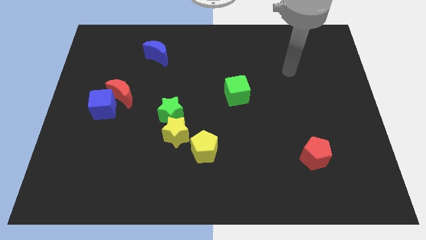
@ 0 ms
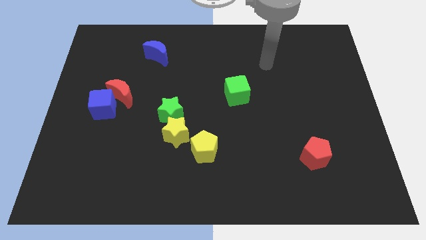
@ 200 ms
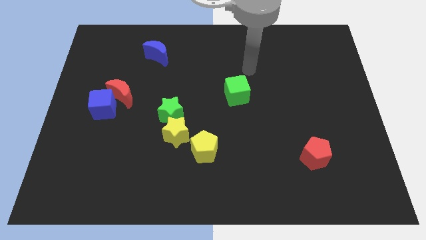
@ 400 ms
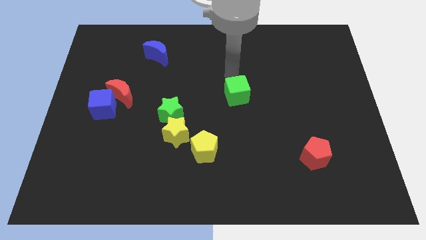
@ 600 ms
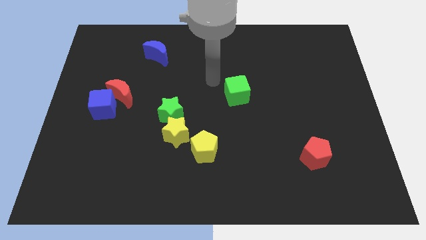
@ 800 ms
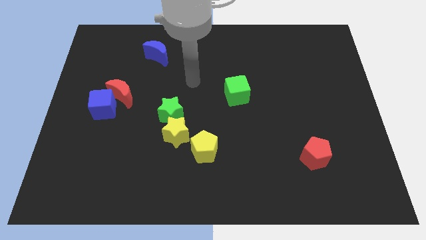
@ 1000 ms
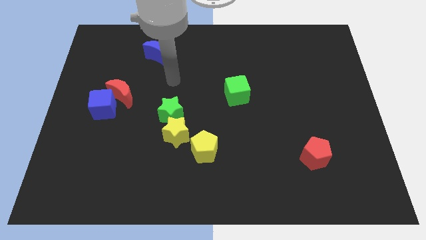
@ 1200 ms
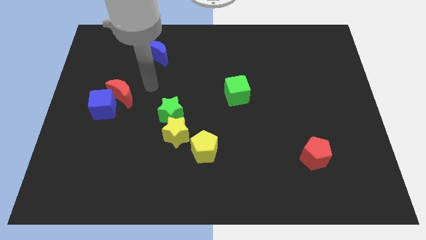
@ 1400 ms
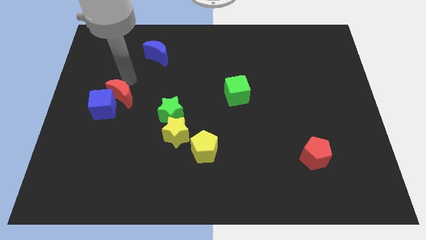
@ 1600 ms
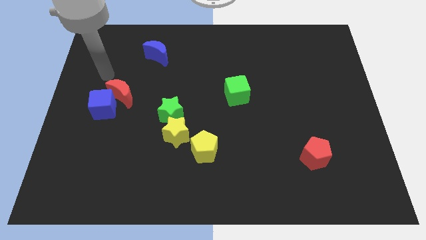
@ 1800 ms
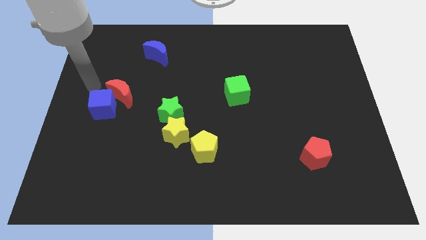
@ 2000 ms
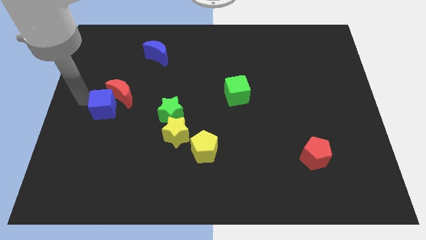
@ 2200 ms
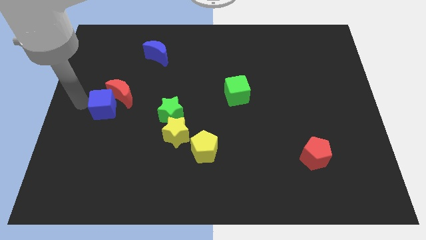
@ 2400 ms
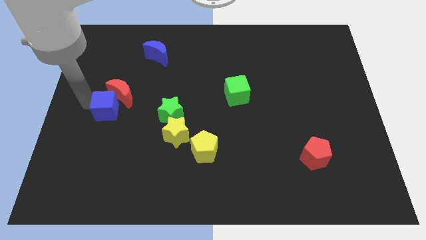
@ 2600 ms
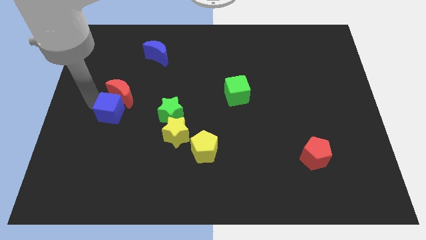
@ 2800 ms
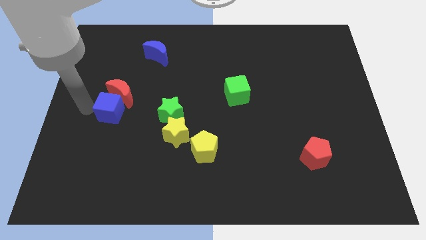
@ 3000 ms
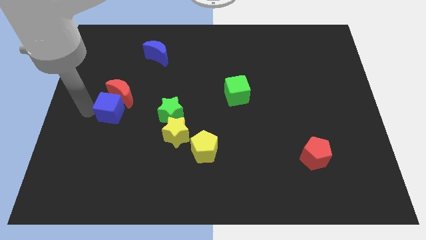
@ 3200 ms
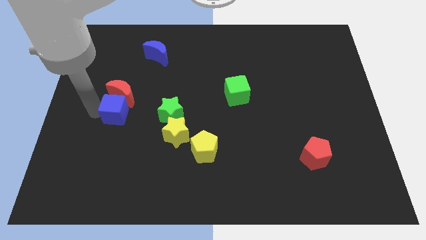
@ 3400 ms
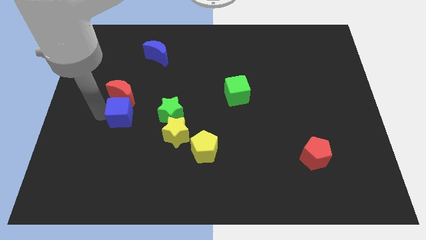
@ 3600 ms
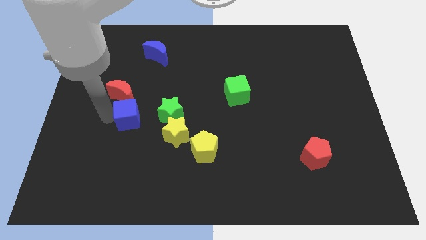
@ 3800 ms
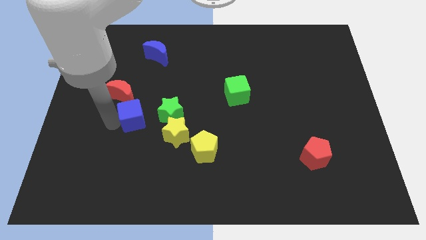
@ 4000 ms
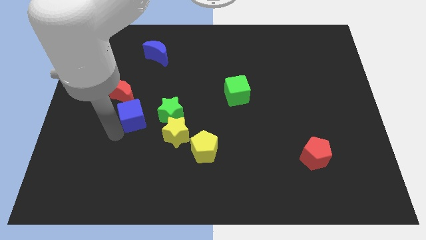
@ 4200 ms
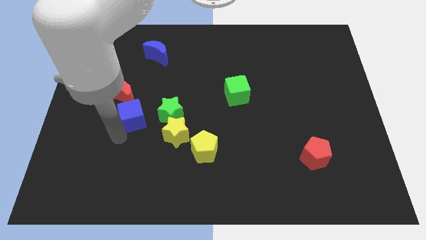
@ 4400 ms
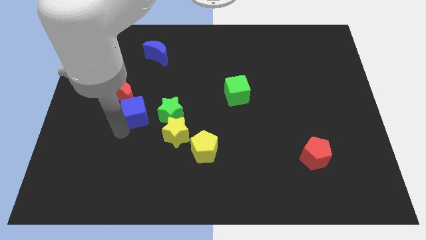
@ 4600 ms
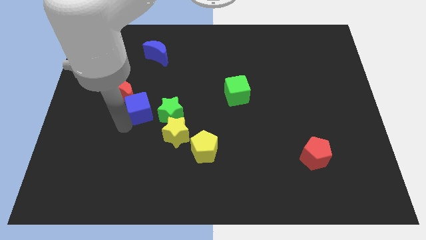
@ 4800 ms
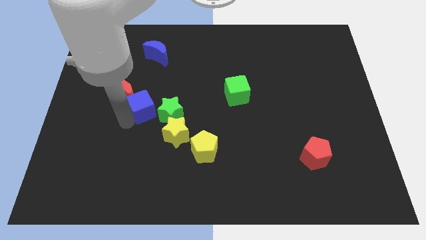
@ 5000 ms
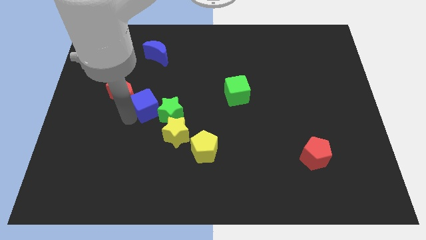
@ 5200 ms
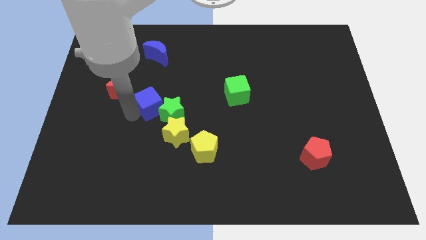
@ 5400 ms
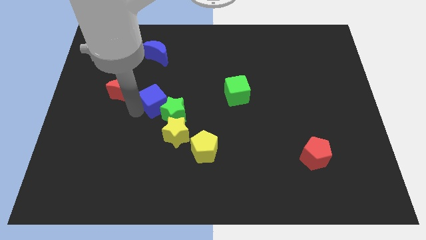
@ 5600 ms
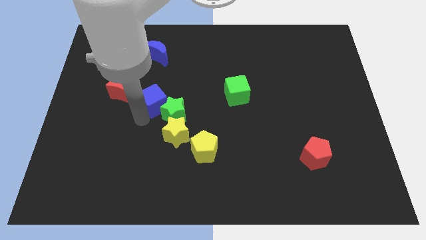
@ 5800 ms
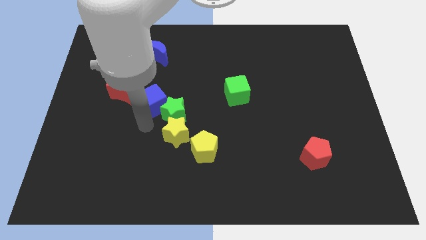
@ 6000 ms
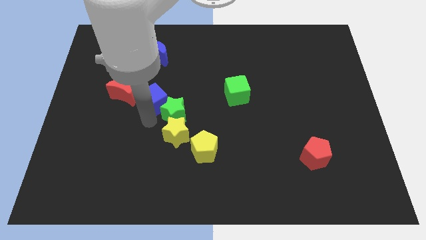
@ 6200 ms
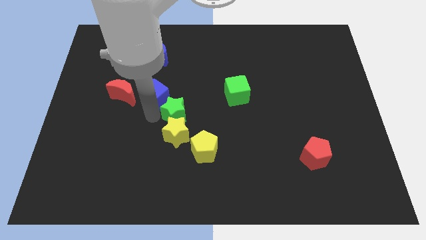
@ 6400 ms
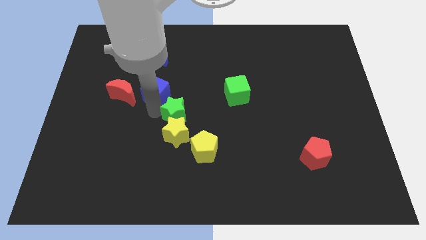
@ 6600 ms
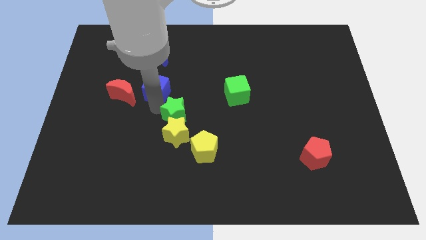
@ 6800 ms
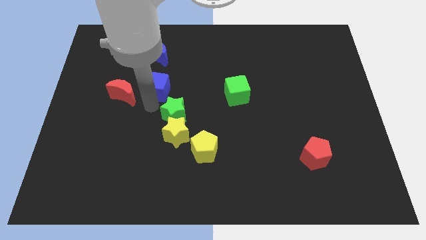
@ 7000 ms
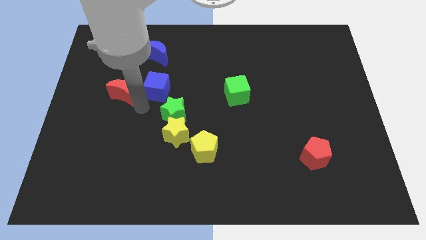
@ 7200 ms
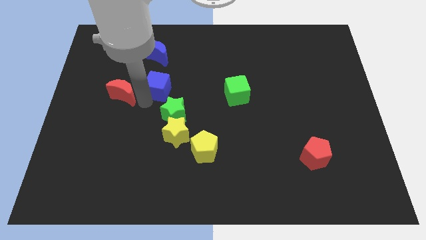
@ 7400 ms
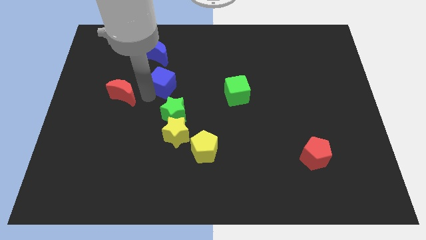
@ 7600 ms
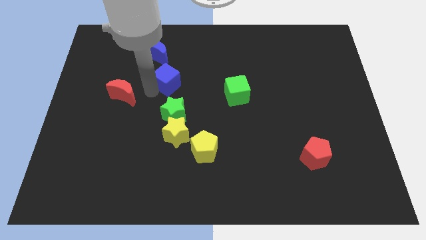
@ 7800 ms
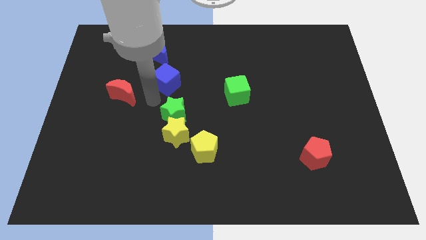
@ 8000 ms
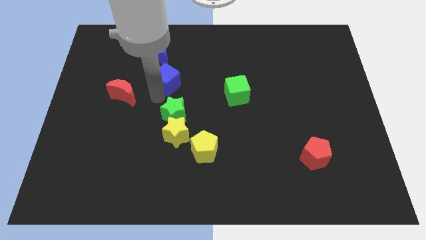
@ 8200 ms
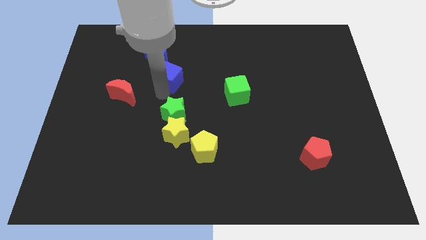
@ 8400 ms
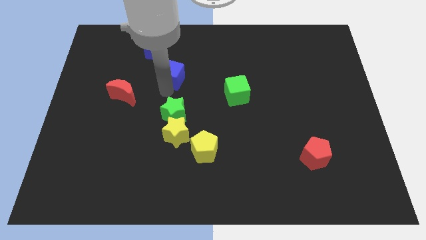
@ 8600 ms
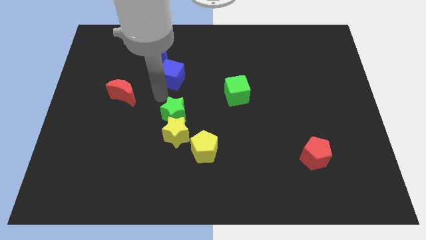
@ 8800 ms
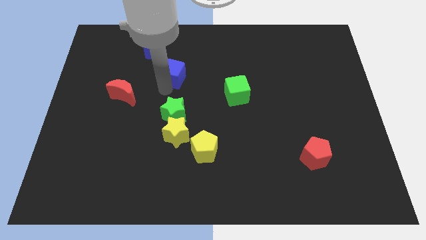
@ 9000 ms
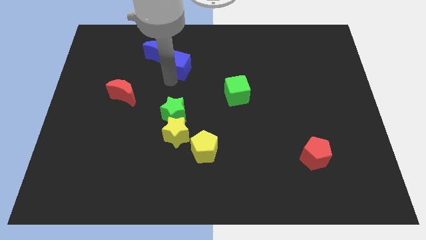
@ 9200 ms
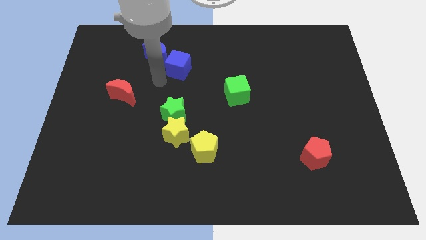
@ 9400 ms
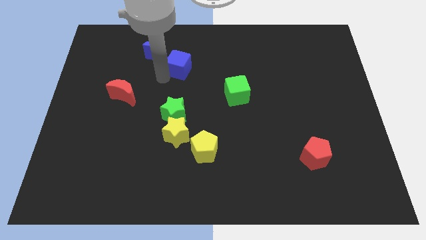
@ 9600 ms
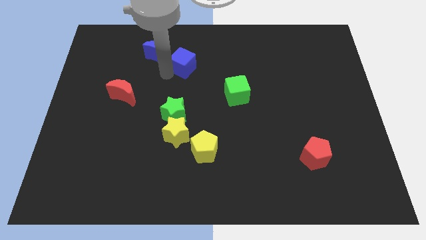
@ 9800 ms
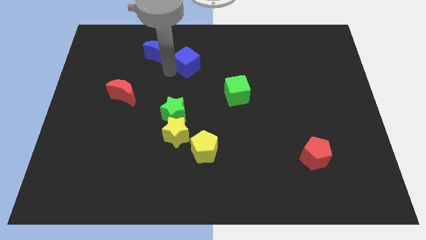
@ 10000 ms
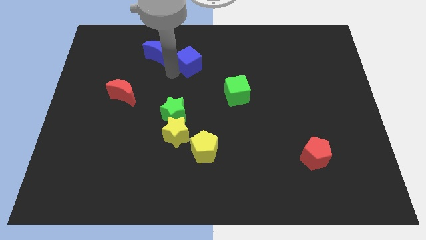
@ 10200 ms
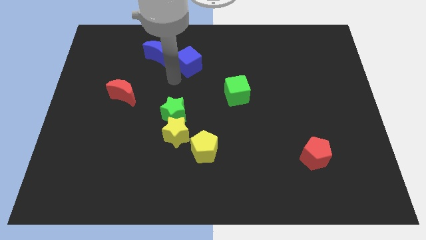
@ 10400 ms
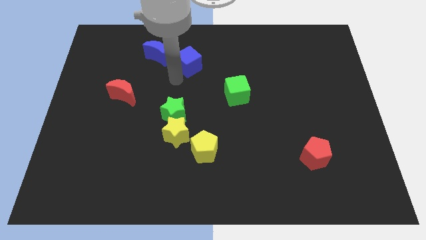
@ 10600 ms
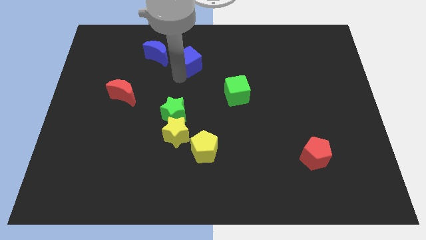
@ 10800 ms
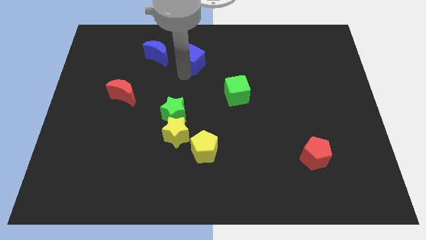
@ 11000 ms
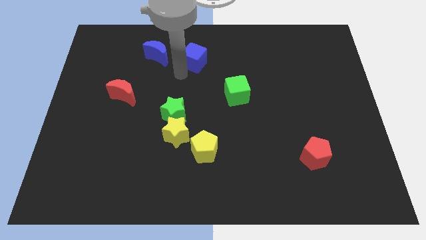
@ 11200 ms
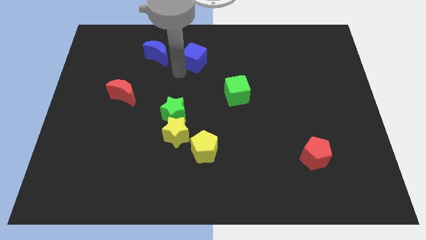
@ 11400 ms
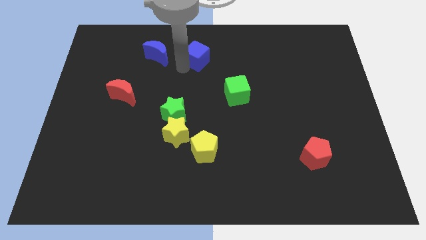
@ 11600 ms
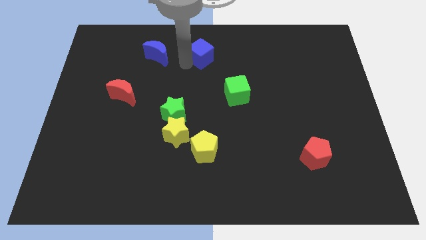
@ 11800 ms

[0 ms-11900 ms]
move the blue cube to the top side
